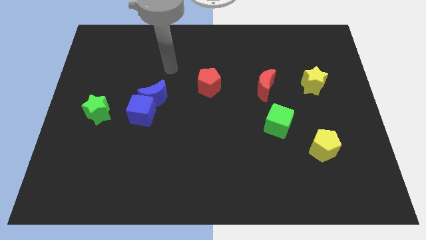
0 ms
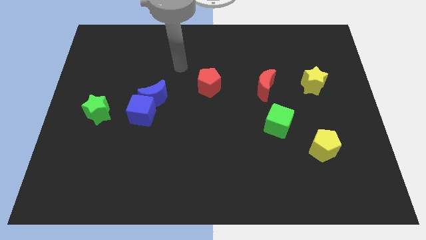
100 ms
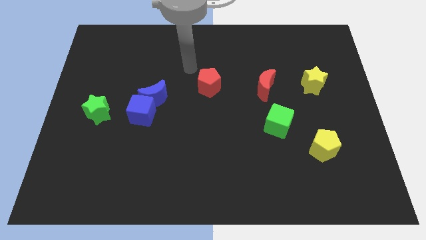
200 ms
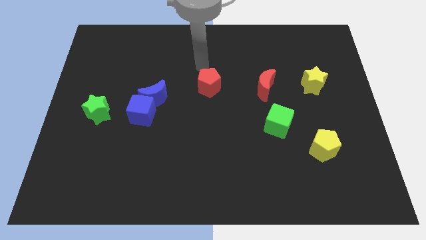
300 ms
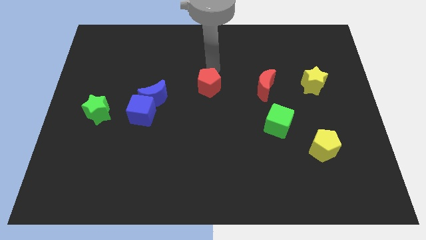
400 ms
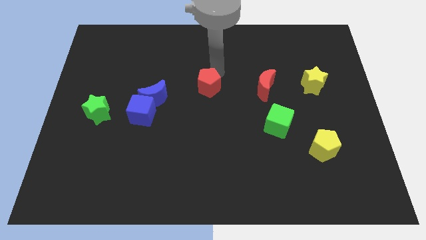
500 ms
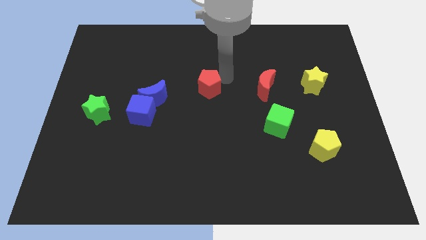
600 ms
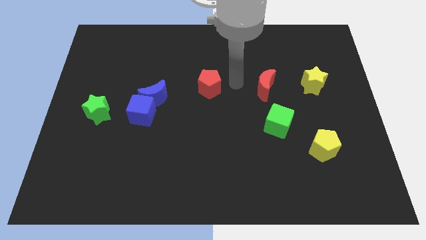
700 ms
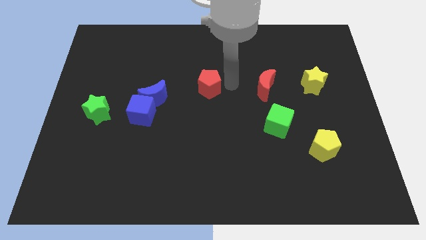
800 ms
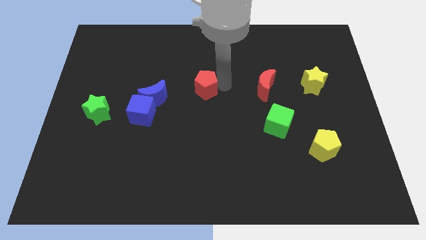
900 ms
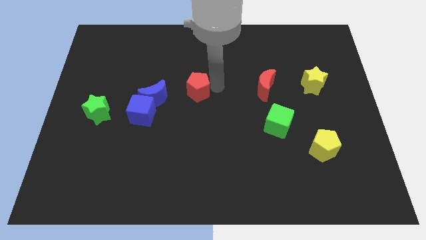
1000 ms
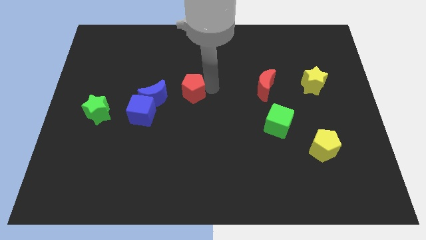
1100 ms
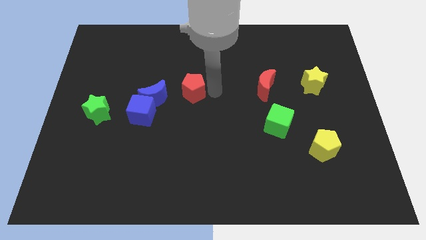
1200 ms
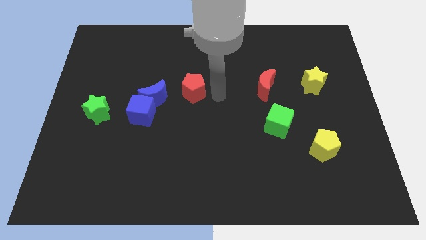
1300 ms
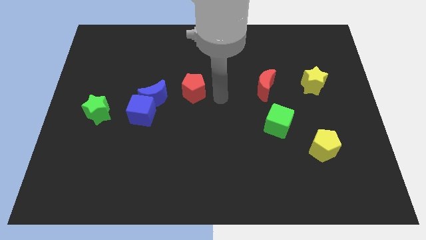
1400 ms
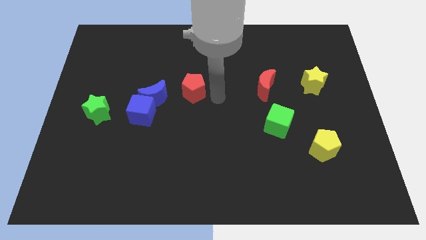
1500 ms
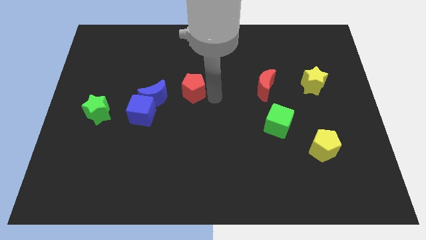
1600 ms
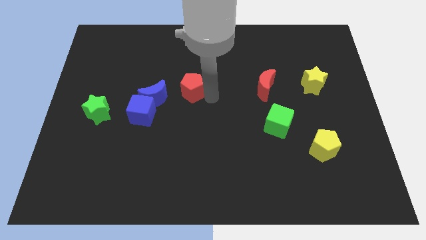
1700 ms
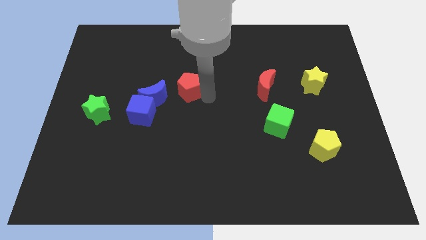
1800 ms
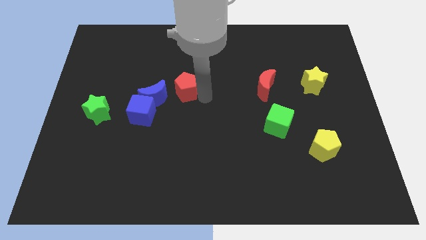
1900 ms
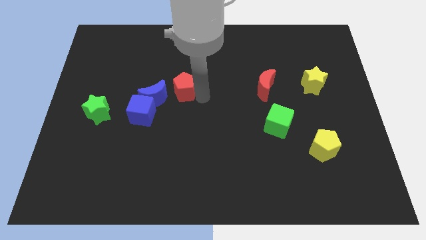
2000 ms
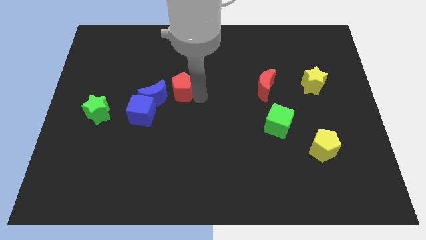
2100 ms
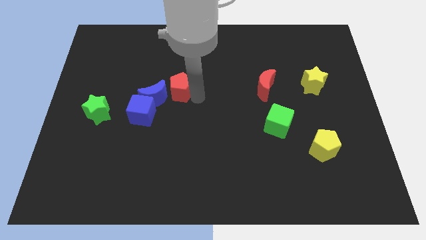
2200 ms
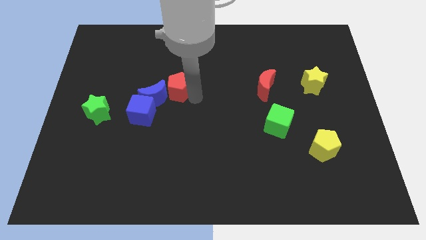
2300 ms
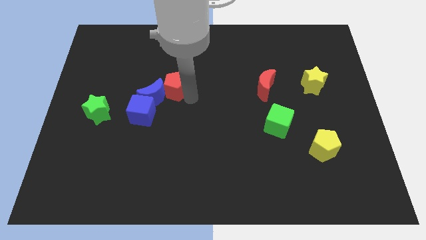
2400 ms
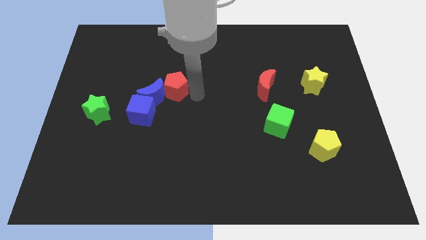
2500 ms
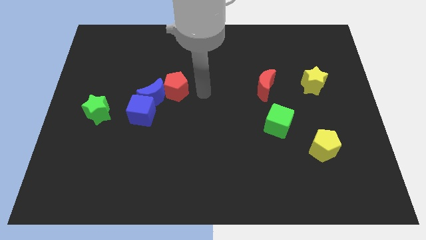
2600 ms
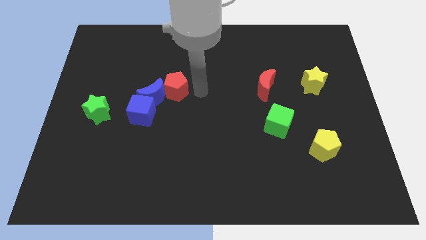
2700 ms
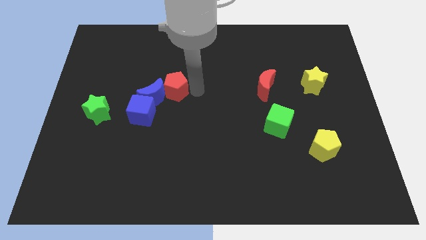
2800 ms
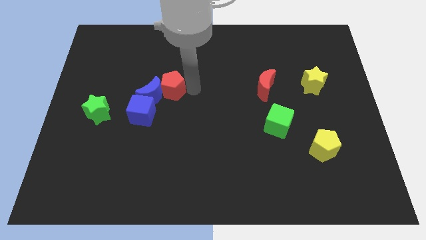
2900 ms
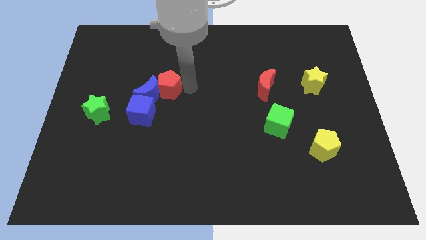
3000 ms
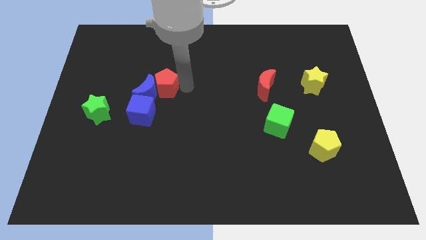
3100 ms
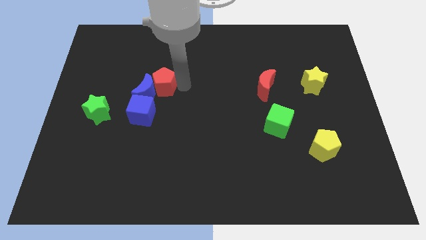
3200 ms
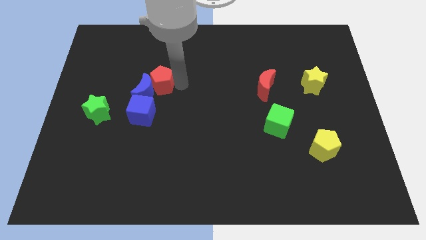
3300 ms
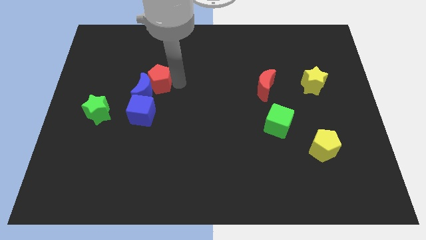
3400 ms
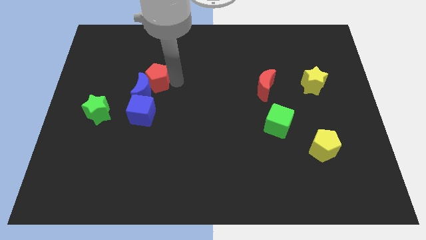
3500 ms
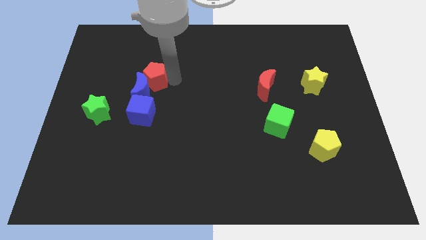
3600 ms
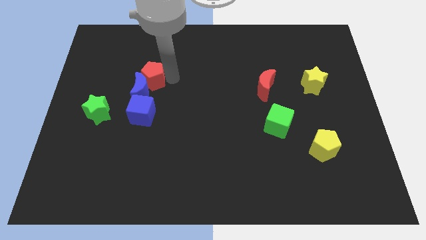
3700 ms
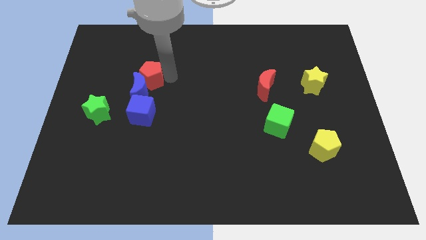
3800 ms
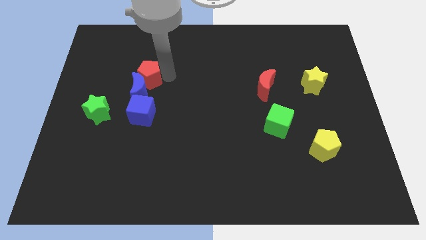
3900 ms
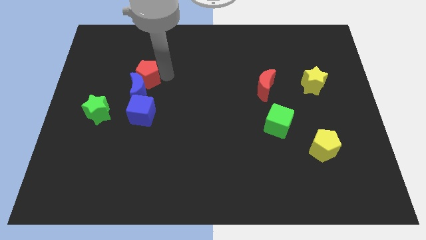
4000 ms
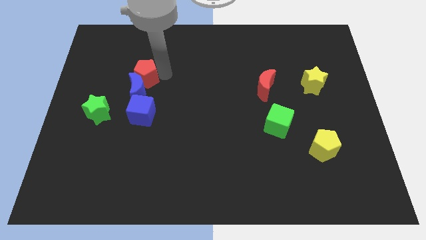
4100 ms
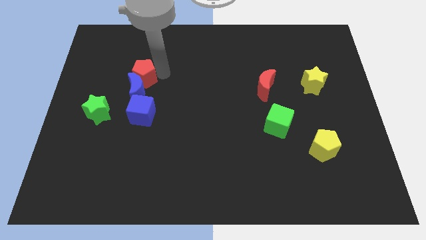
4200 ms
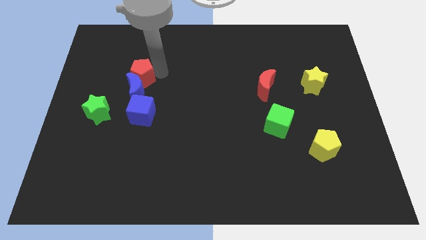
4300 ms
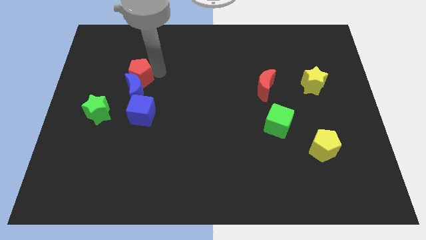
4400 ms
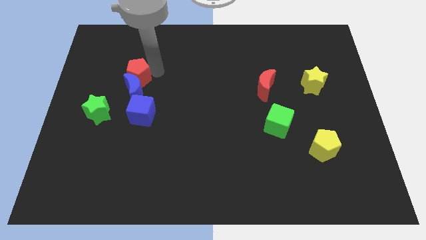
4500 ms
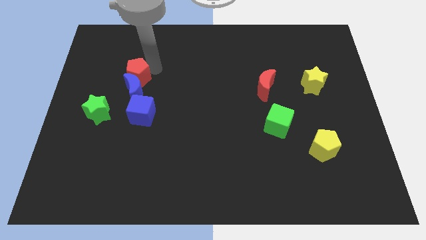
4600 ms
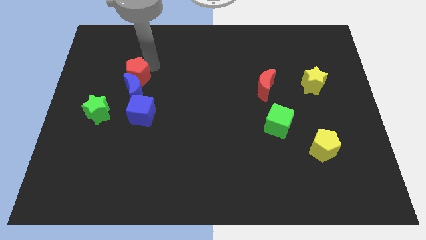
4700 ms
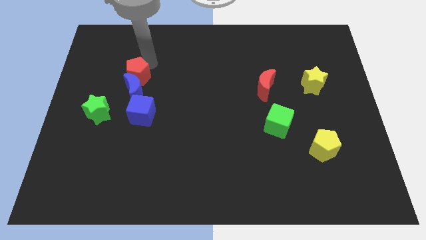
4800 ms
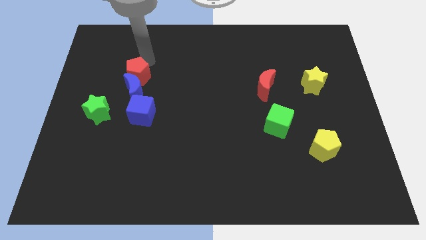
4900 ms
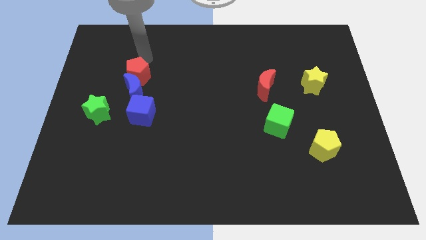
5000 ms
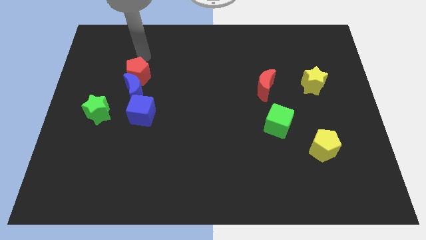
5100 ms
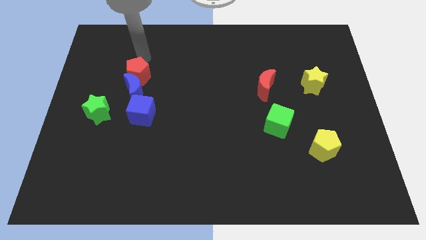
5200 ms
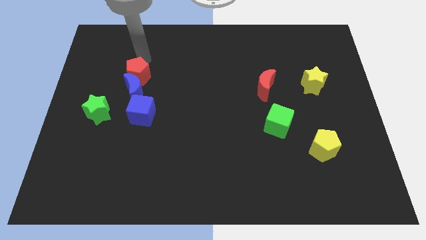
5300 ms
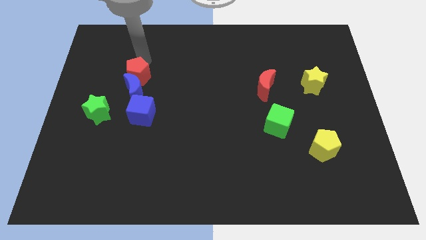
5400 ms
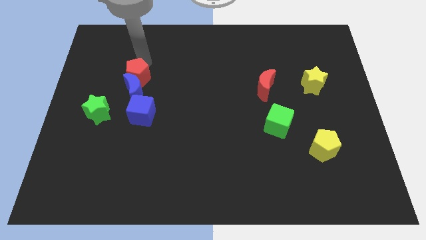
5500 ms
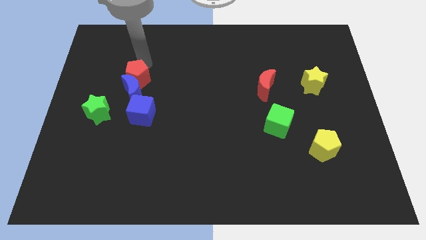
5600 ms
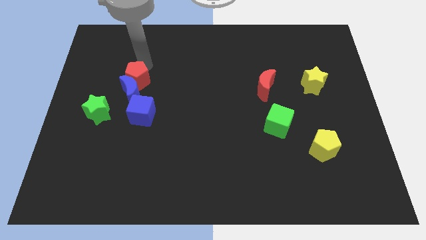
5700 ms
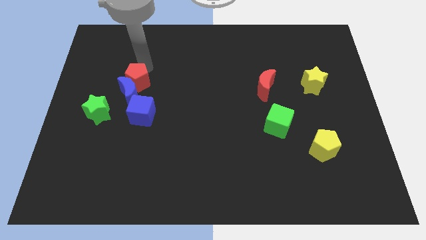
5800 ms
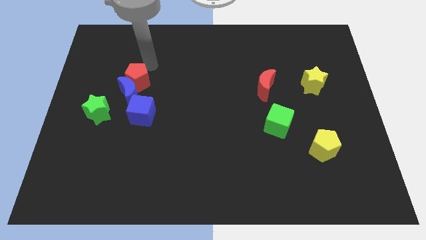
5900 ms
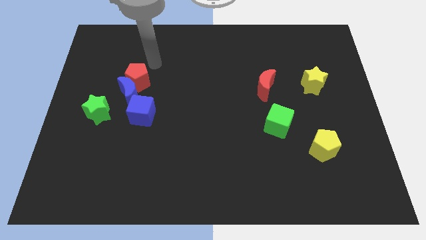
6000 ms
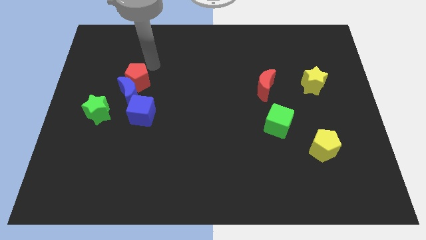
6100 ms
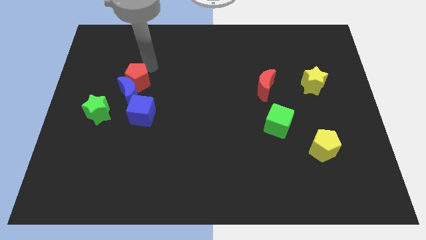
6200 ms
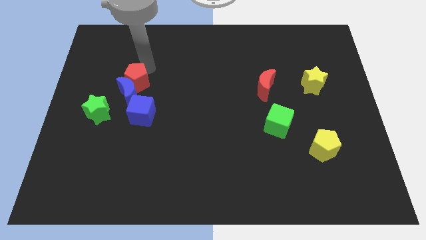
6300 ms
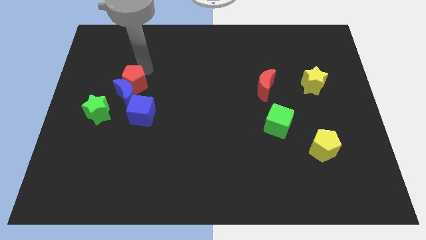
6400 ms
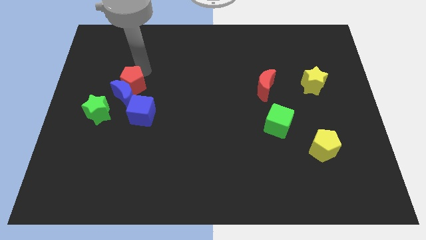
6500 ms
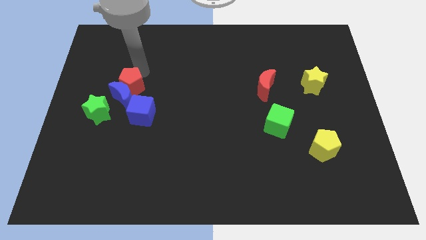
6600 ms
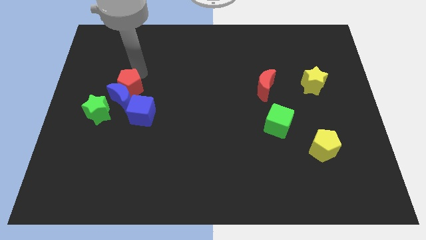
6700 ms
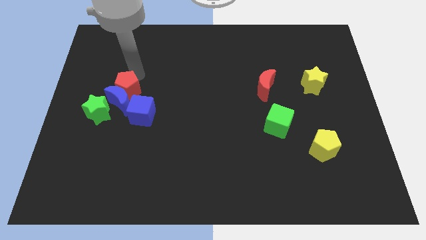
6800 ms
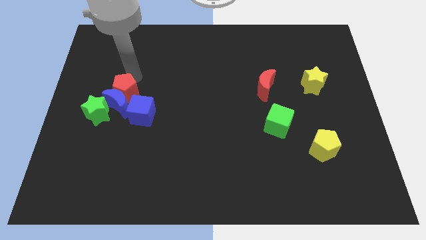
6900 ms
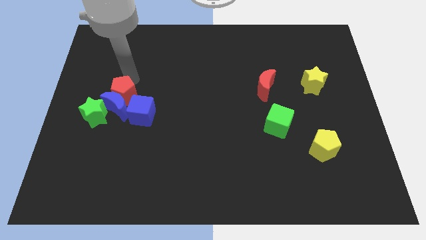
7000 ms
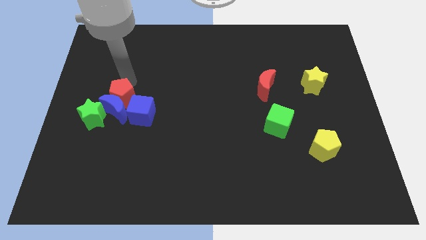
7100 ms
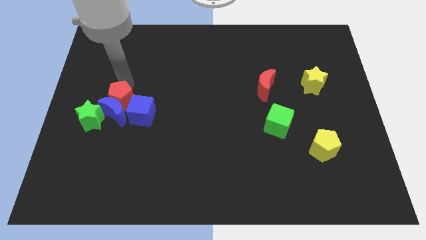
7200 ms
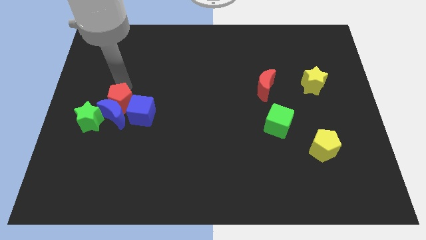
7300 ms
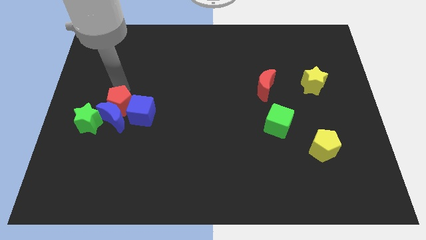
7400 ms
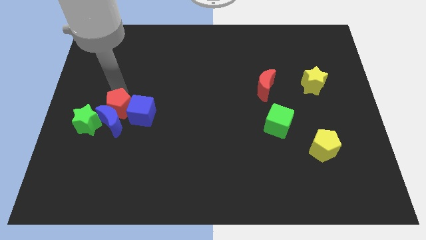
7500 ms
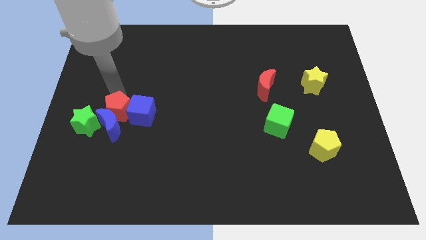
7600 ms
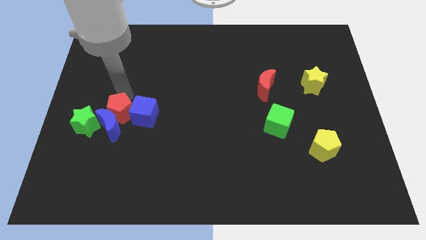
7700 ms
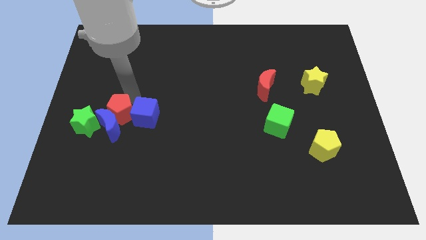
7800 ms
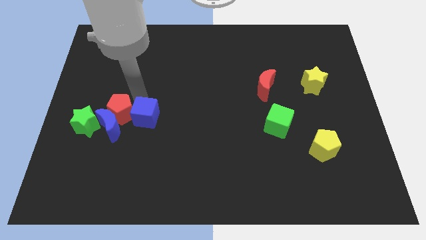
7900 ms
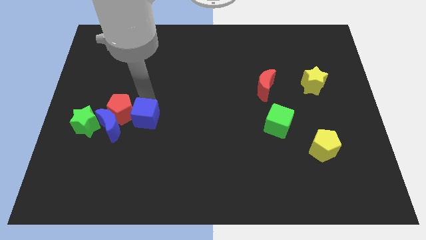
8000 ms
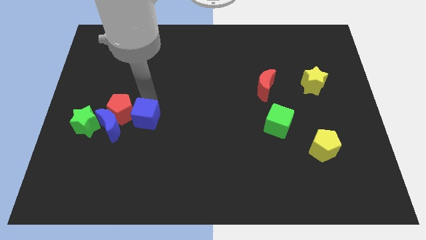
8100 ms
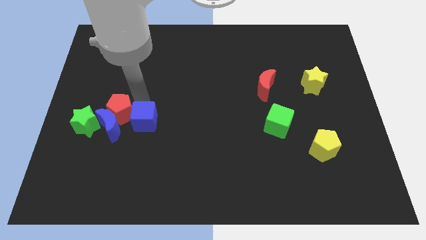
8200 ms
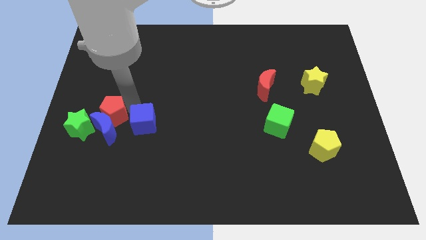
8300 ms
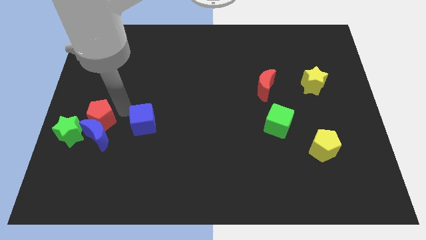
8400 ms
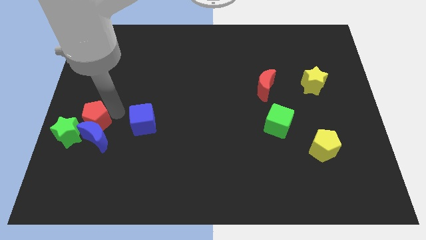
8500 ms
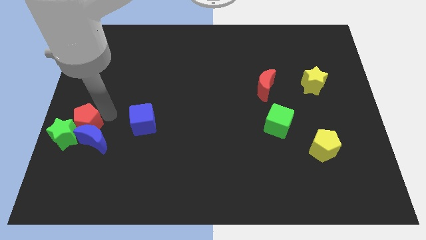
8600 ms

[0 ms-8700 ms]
push the red pentagon close to the green star
